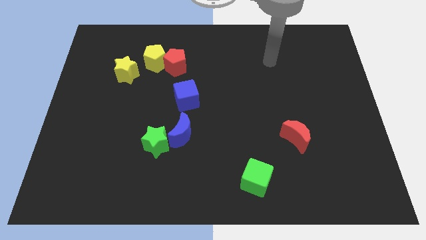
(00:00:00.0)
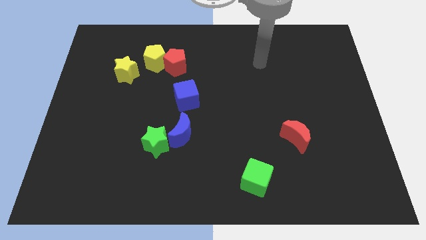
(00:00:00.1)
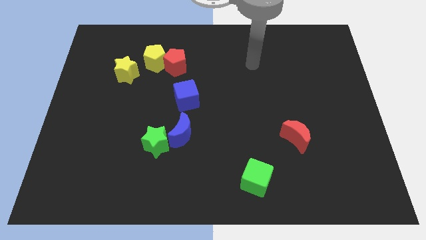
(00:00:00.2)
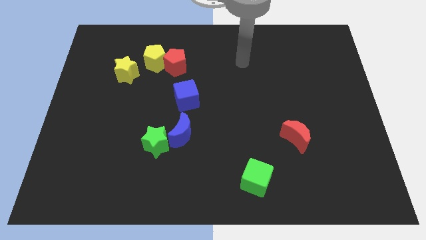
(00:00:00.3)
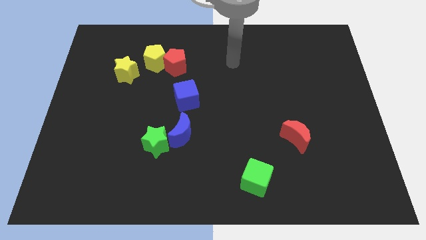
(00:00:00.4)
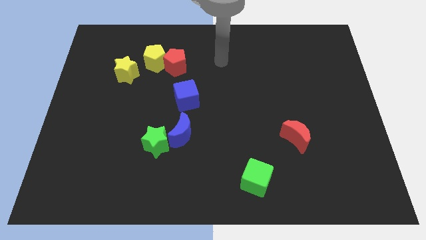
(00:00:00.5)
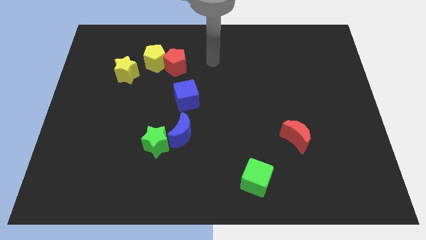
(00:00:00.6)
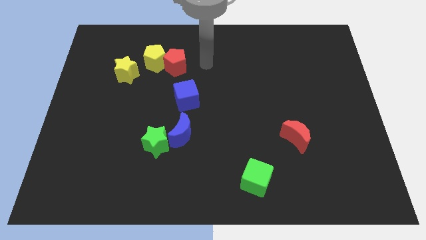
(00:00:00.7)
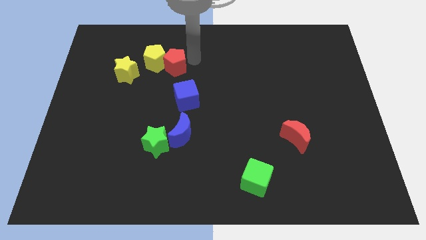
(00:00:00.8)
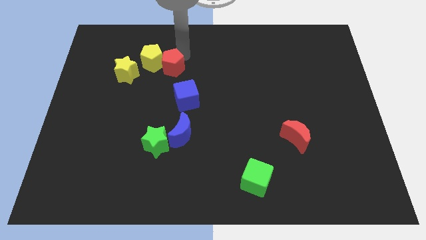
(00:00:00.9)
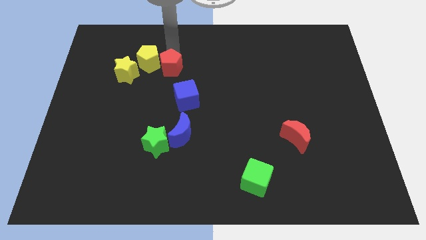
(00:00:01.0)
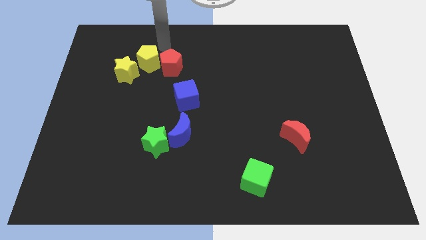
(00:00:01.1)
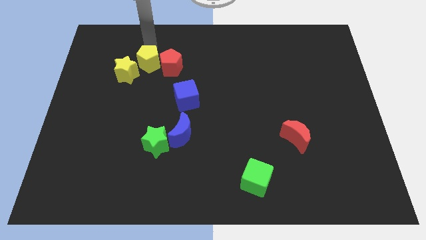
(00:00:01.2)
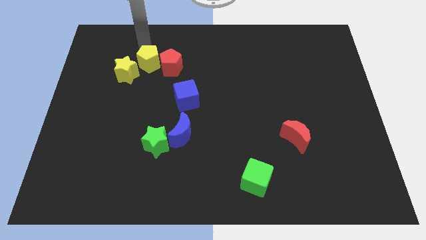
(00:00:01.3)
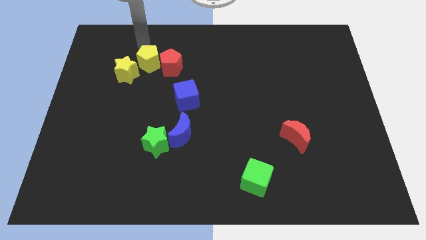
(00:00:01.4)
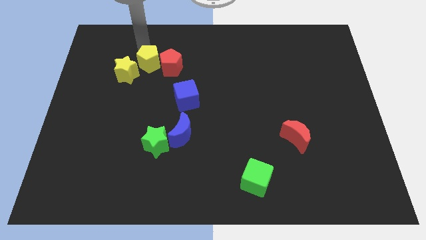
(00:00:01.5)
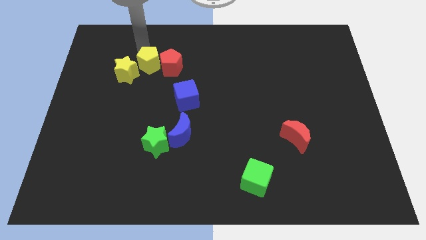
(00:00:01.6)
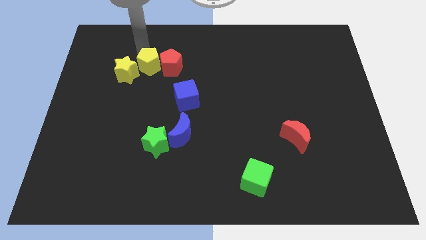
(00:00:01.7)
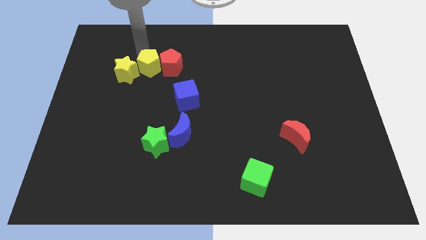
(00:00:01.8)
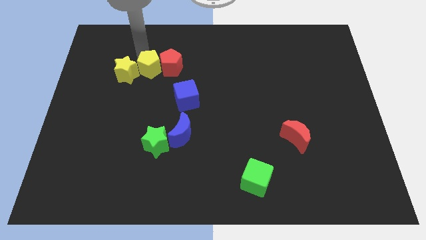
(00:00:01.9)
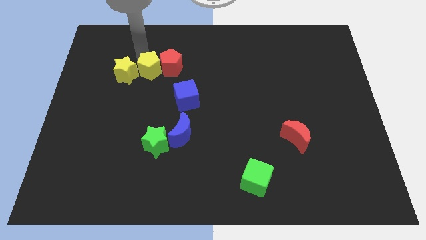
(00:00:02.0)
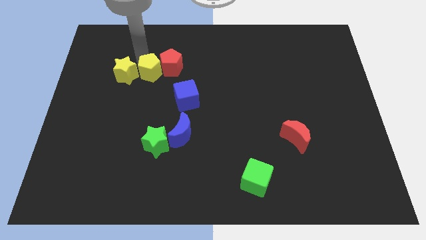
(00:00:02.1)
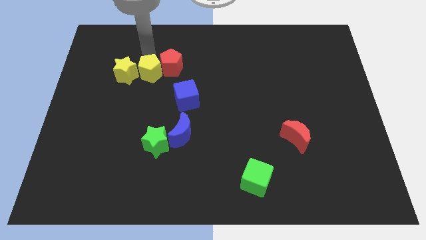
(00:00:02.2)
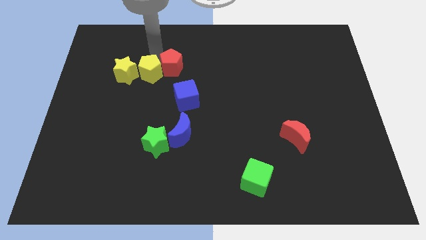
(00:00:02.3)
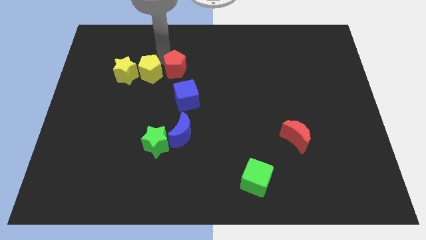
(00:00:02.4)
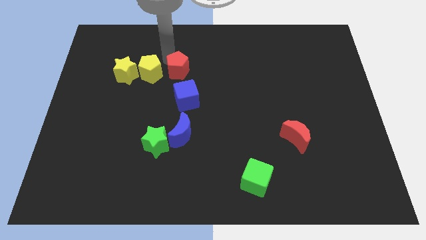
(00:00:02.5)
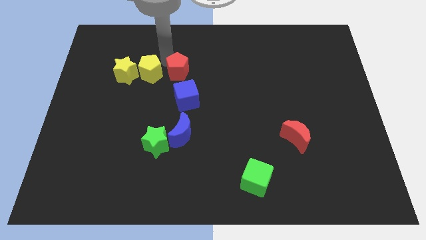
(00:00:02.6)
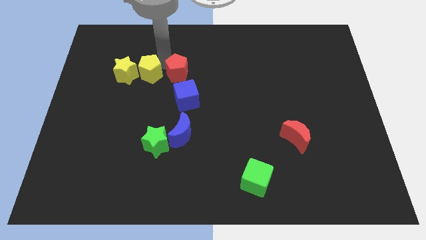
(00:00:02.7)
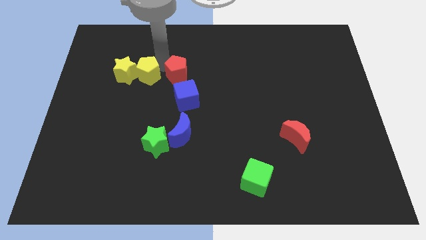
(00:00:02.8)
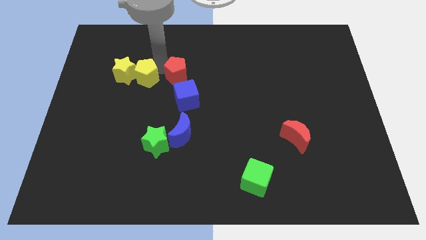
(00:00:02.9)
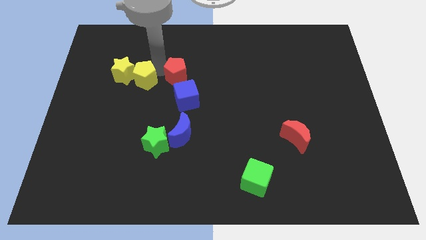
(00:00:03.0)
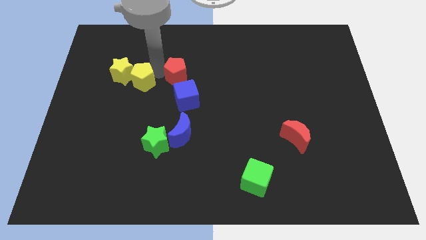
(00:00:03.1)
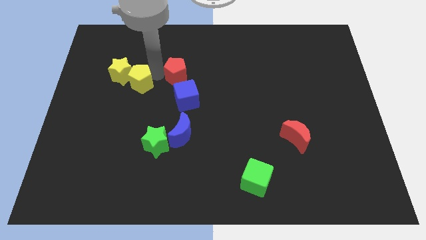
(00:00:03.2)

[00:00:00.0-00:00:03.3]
move the yellow pentagon slightly down and to the left

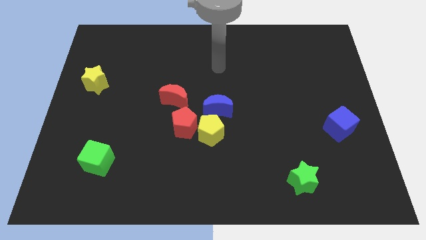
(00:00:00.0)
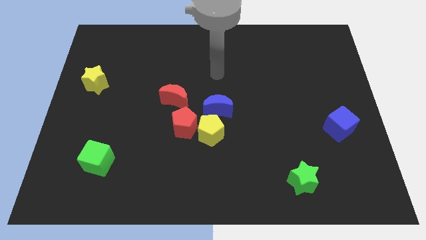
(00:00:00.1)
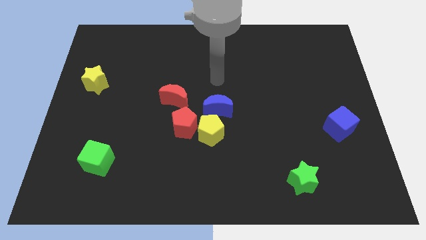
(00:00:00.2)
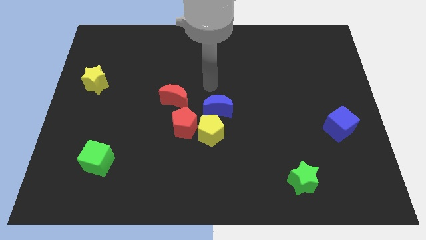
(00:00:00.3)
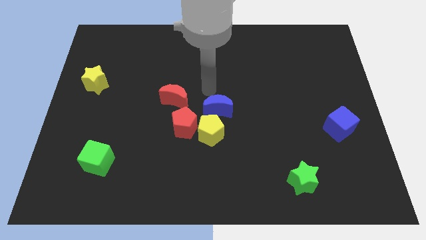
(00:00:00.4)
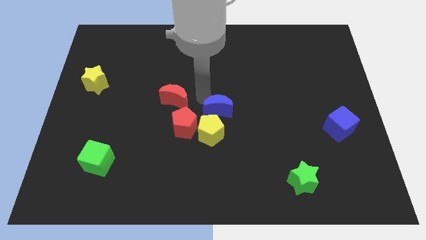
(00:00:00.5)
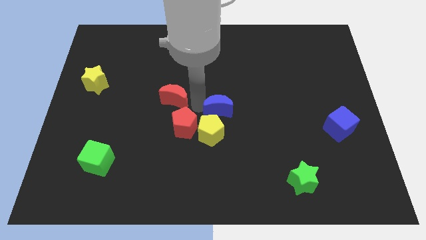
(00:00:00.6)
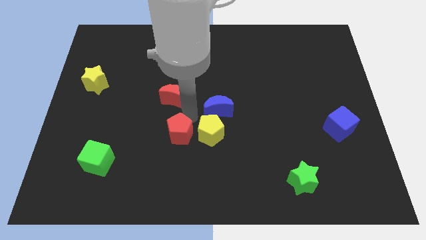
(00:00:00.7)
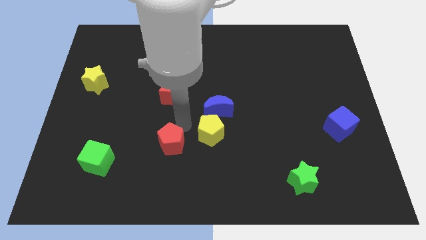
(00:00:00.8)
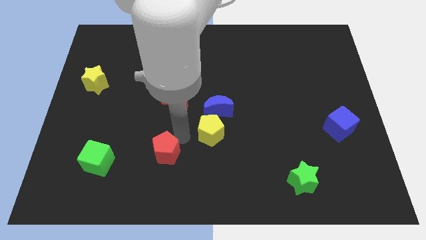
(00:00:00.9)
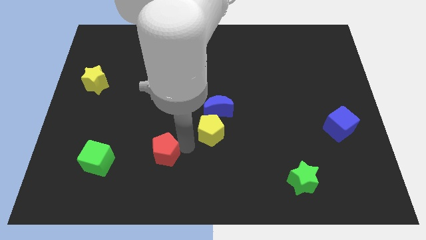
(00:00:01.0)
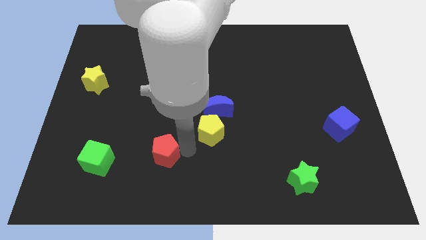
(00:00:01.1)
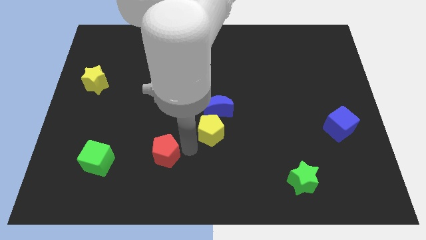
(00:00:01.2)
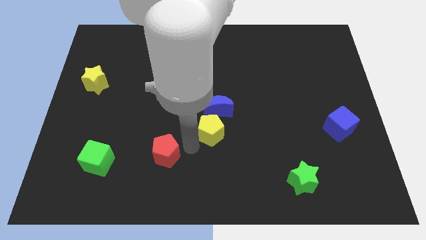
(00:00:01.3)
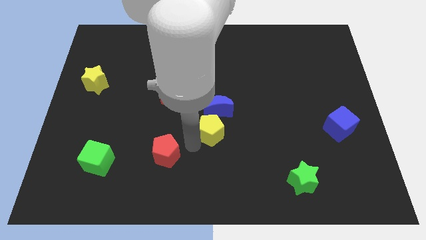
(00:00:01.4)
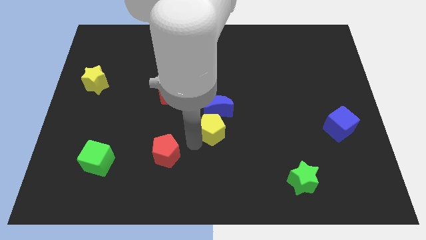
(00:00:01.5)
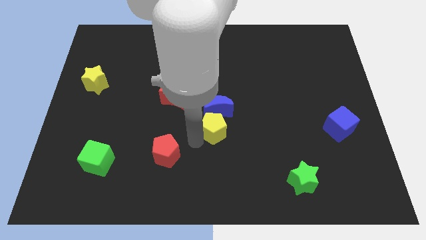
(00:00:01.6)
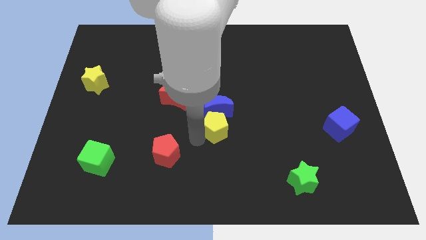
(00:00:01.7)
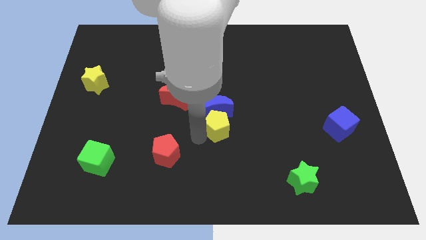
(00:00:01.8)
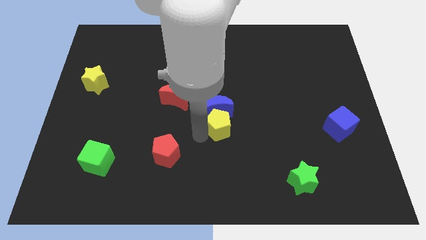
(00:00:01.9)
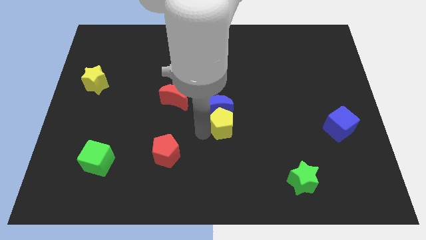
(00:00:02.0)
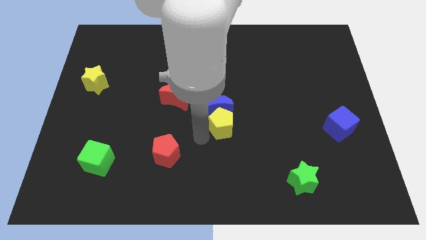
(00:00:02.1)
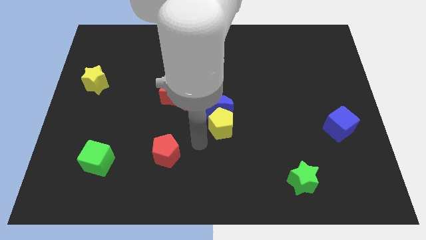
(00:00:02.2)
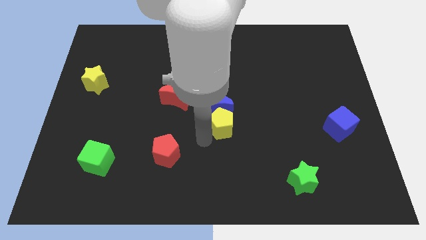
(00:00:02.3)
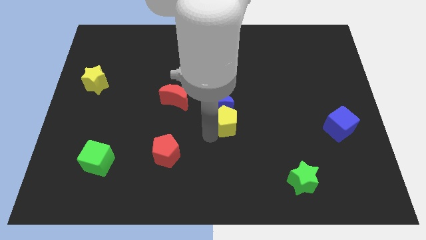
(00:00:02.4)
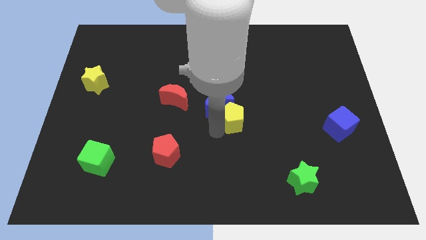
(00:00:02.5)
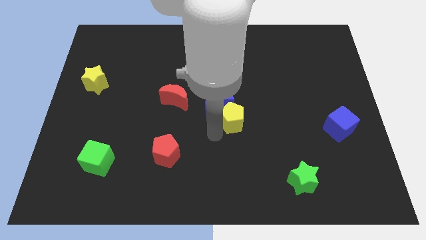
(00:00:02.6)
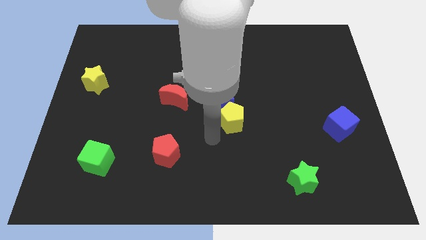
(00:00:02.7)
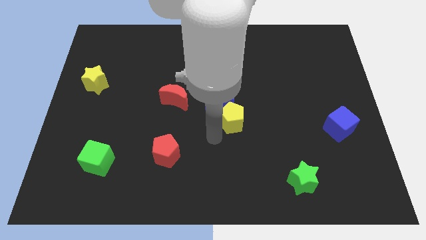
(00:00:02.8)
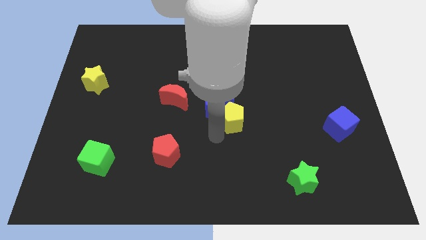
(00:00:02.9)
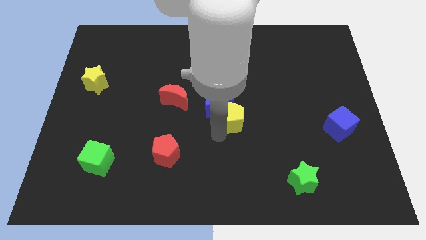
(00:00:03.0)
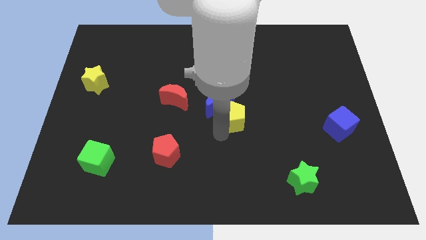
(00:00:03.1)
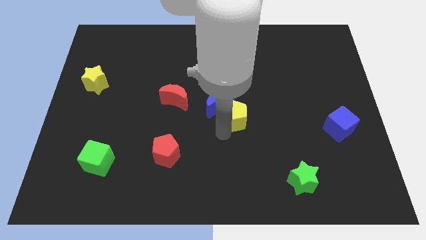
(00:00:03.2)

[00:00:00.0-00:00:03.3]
slide the yellow pentagon slightly upwards and right diagonally

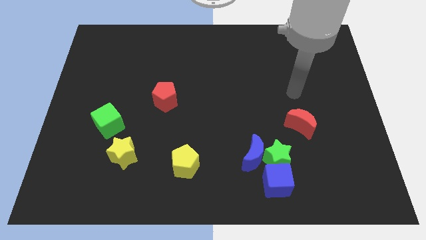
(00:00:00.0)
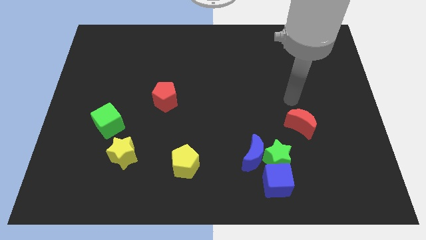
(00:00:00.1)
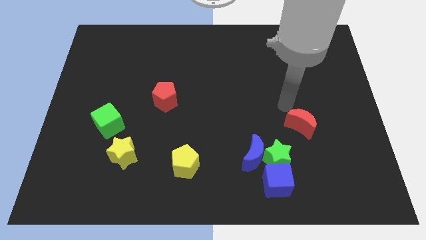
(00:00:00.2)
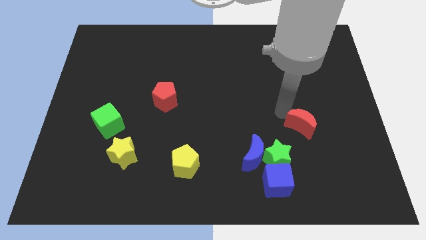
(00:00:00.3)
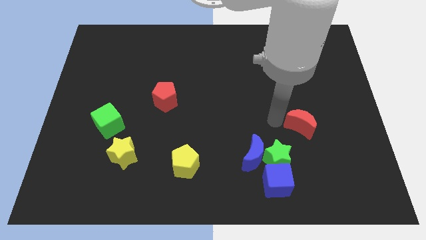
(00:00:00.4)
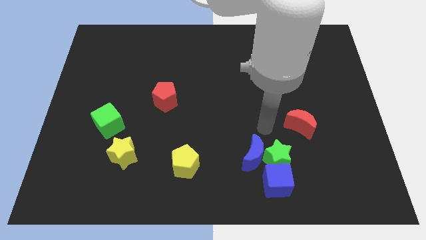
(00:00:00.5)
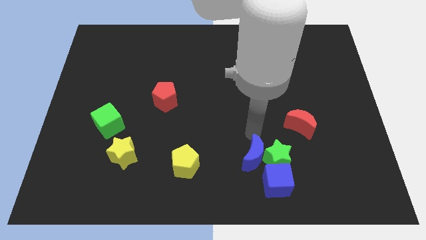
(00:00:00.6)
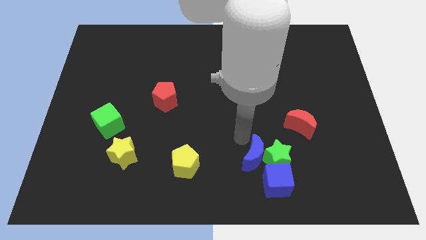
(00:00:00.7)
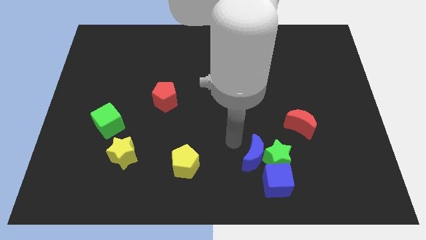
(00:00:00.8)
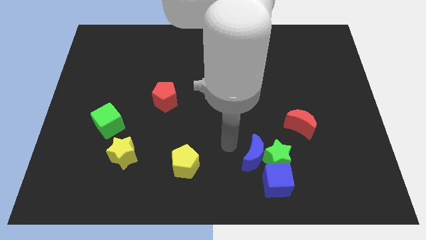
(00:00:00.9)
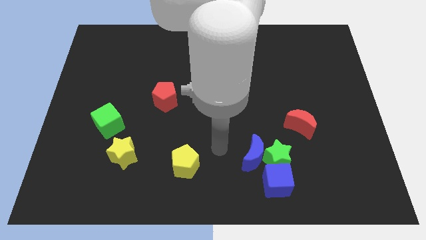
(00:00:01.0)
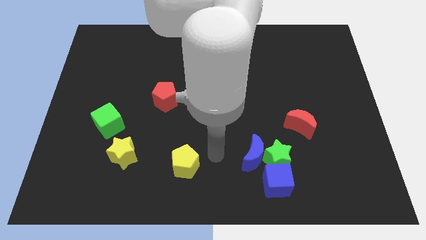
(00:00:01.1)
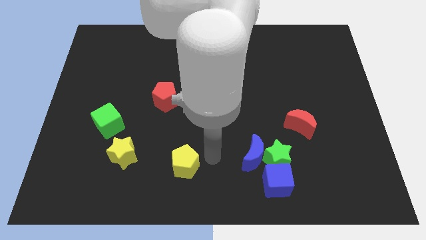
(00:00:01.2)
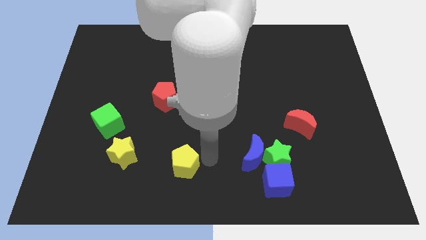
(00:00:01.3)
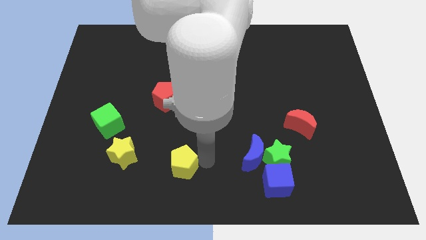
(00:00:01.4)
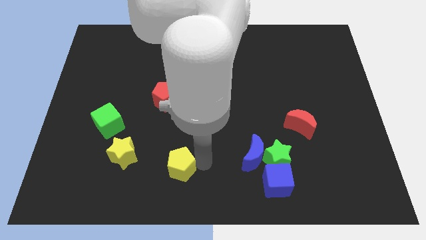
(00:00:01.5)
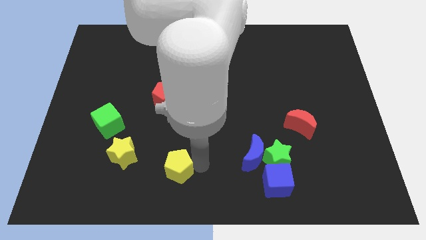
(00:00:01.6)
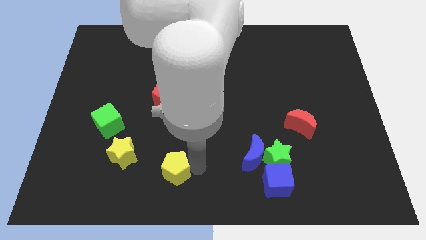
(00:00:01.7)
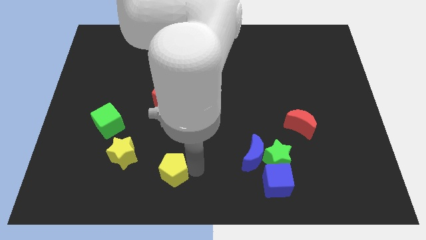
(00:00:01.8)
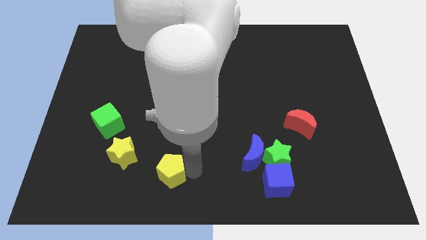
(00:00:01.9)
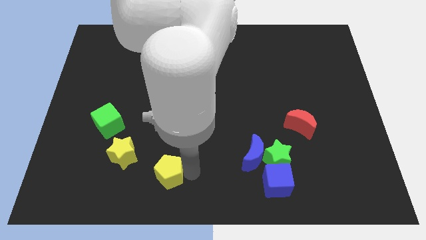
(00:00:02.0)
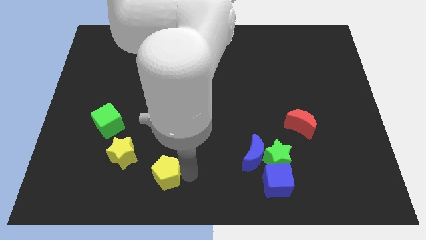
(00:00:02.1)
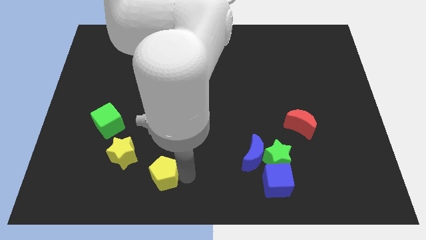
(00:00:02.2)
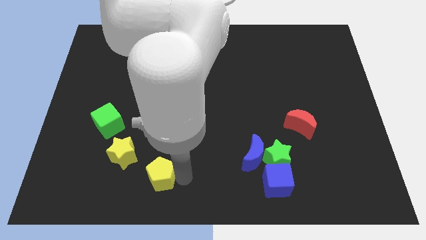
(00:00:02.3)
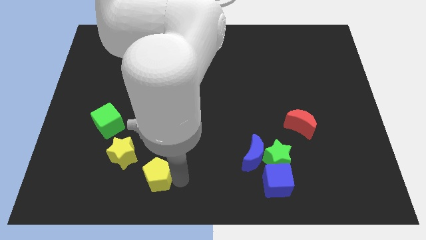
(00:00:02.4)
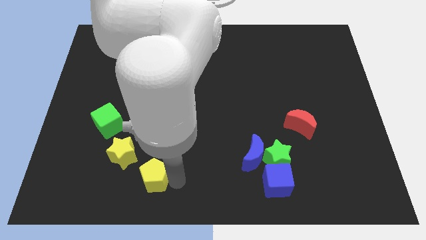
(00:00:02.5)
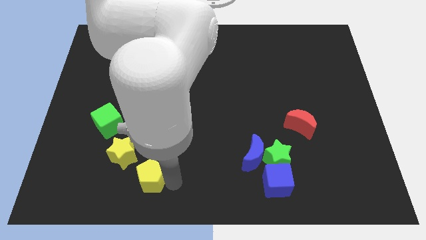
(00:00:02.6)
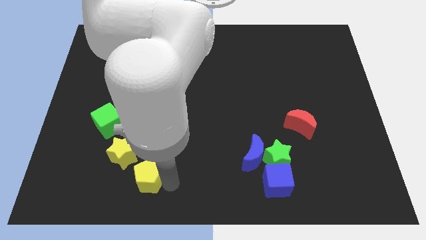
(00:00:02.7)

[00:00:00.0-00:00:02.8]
move the yellow pentagon slightly left
